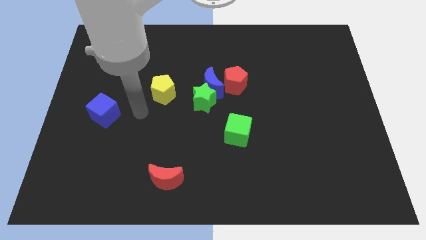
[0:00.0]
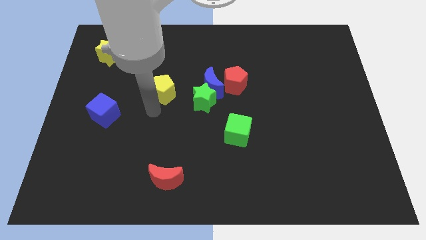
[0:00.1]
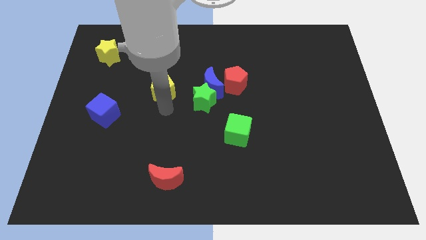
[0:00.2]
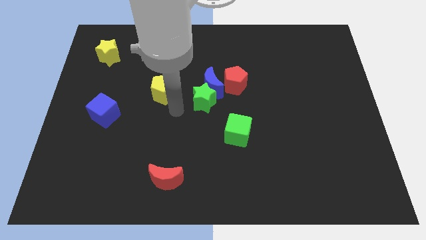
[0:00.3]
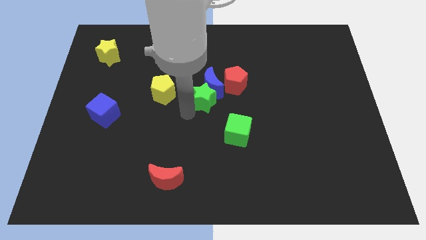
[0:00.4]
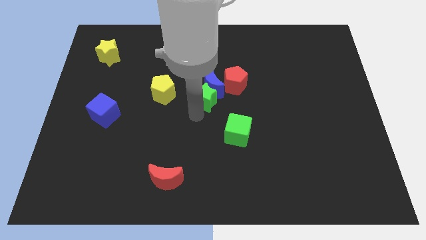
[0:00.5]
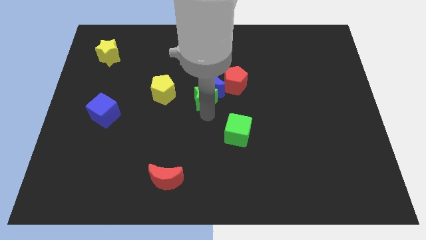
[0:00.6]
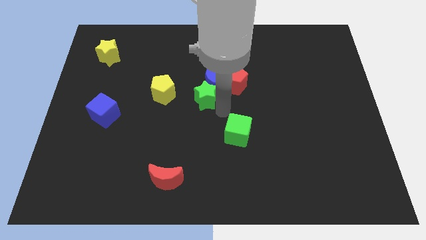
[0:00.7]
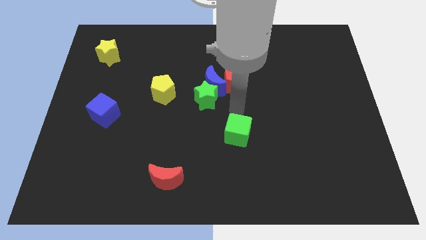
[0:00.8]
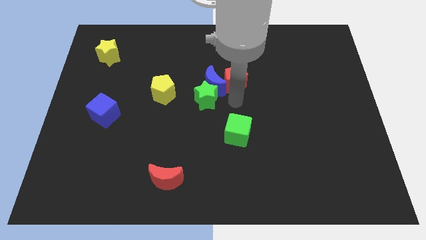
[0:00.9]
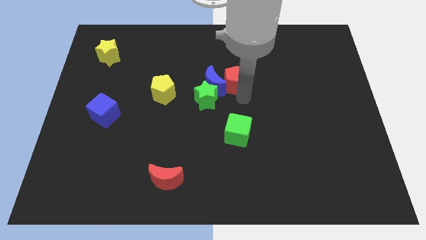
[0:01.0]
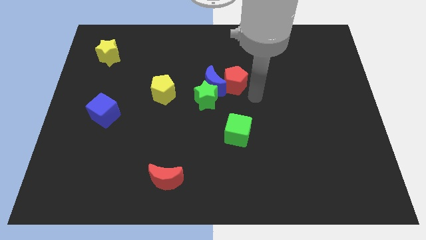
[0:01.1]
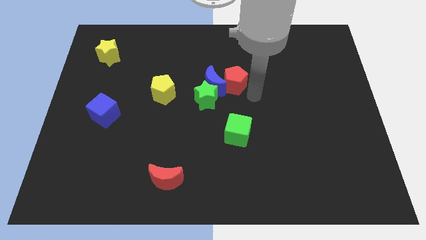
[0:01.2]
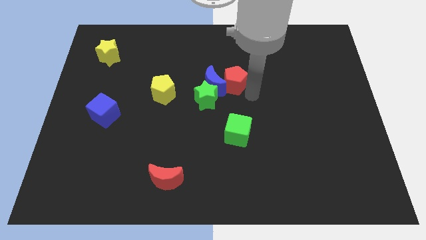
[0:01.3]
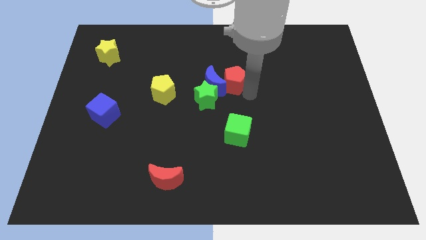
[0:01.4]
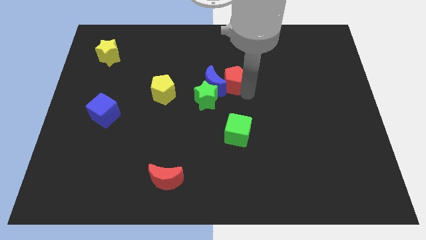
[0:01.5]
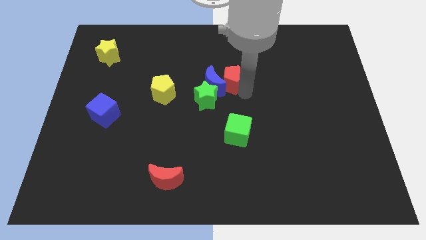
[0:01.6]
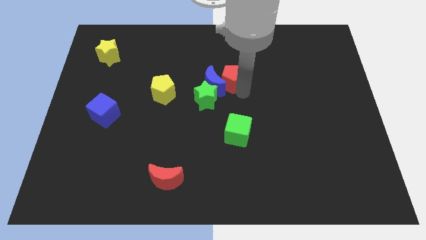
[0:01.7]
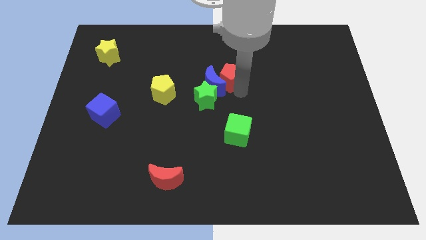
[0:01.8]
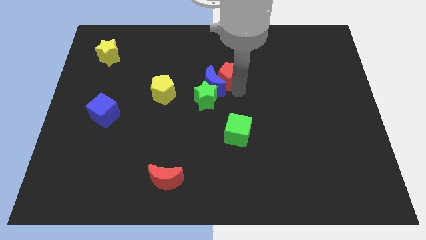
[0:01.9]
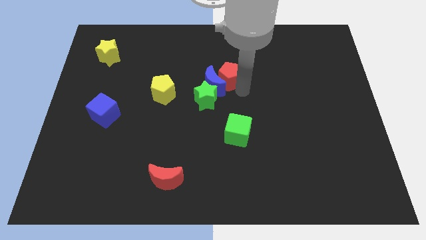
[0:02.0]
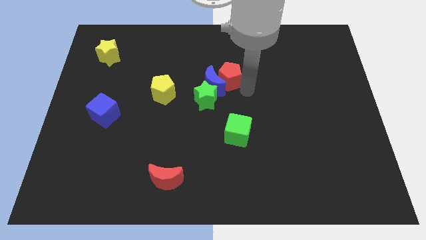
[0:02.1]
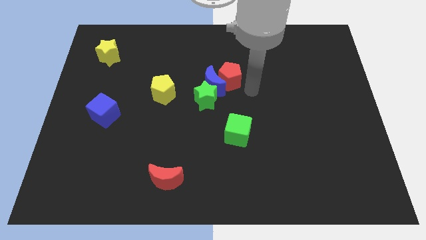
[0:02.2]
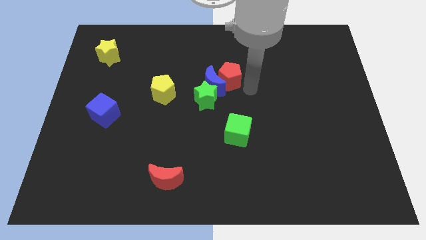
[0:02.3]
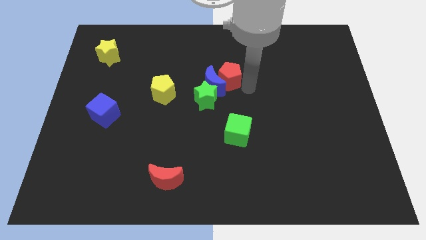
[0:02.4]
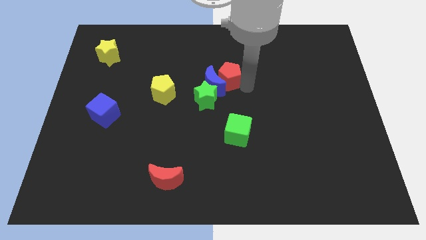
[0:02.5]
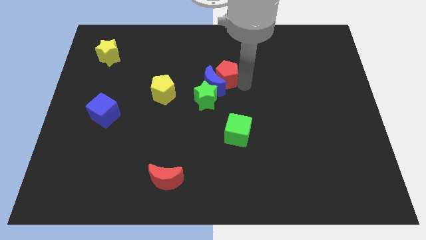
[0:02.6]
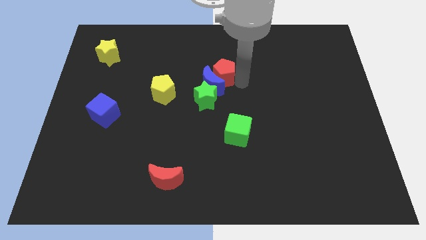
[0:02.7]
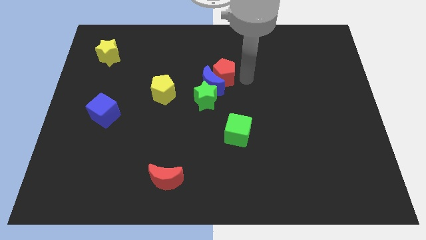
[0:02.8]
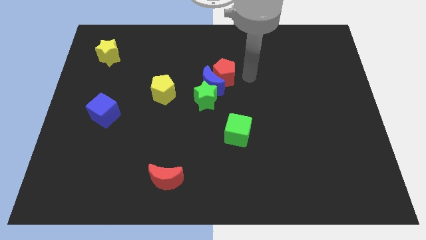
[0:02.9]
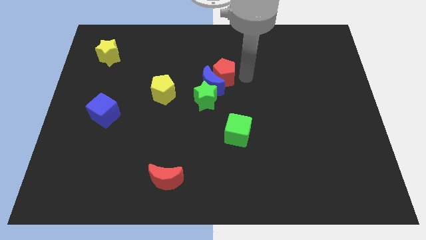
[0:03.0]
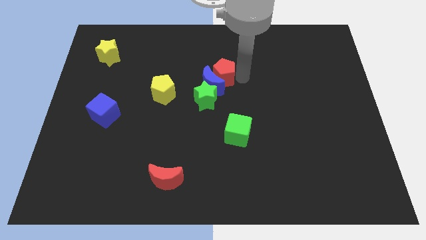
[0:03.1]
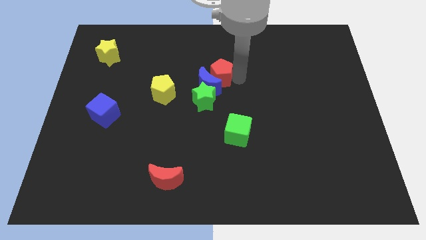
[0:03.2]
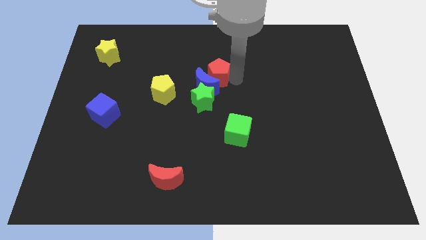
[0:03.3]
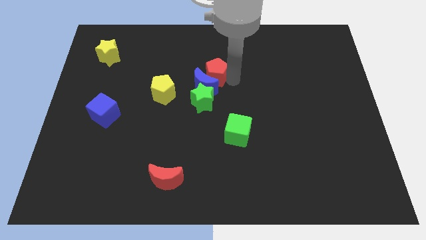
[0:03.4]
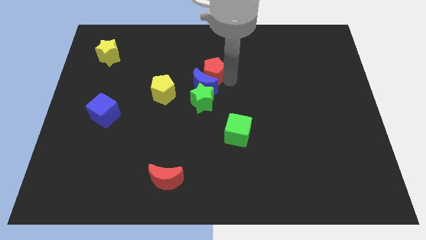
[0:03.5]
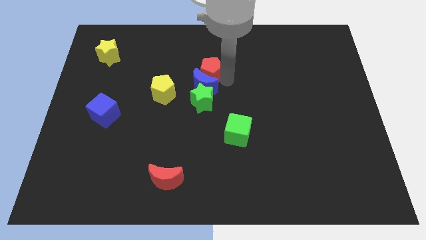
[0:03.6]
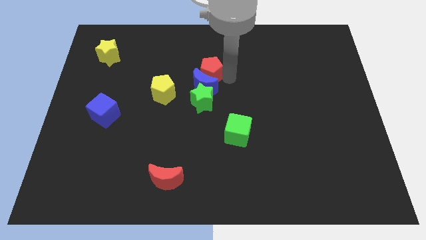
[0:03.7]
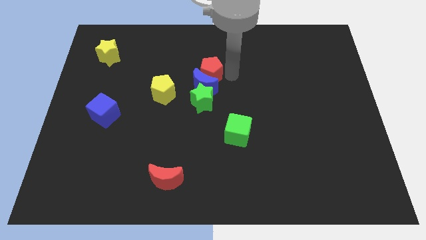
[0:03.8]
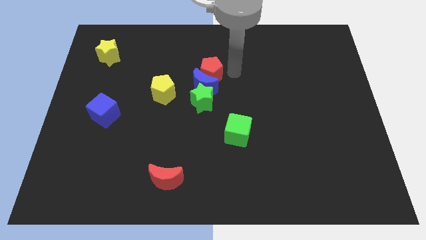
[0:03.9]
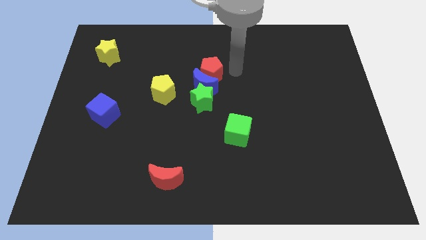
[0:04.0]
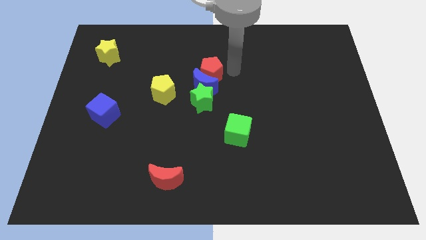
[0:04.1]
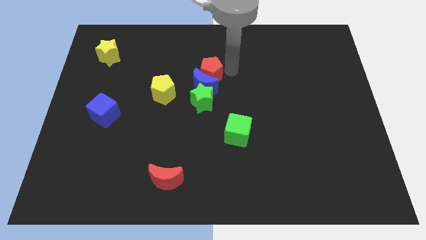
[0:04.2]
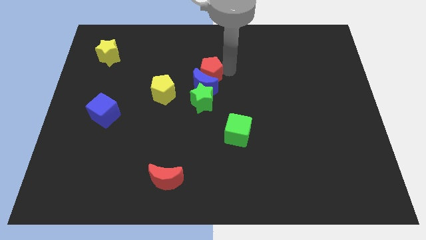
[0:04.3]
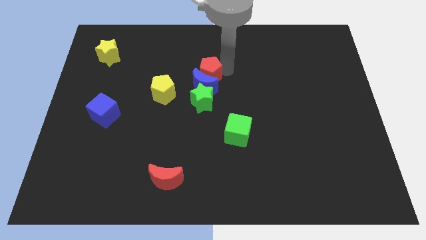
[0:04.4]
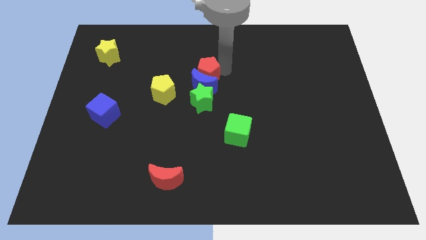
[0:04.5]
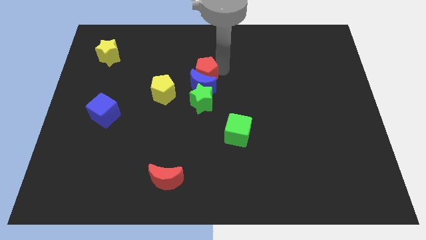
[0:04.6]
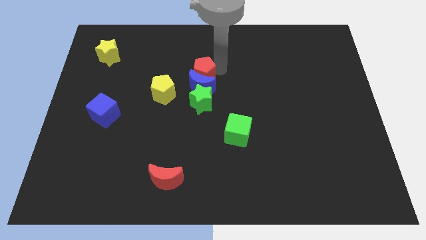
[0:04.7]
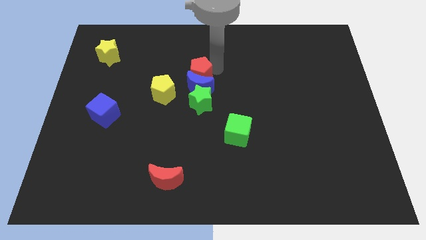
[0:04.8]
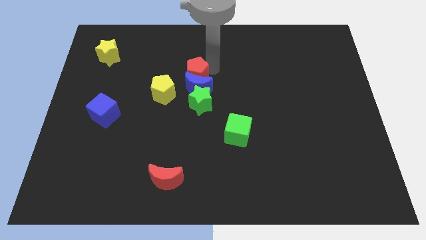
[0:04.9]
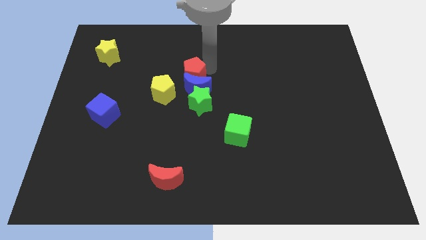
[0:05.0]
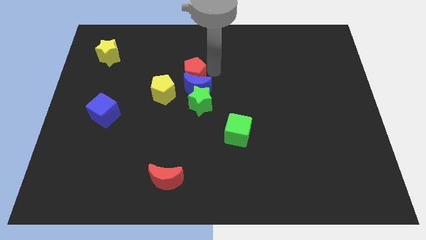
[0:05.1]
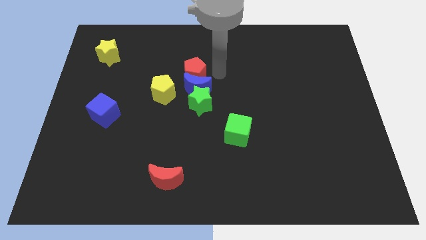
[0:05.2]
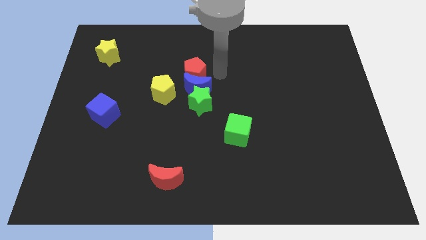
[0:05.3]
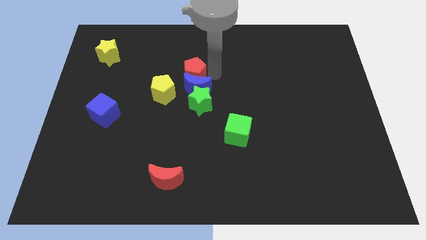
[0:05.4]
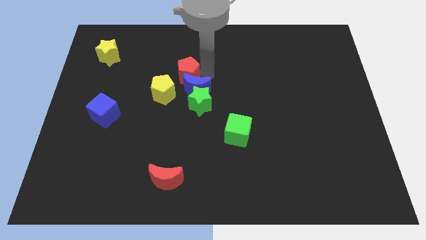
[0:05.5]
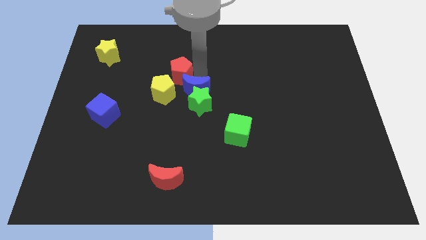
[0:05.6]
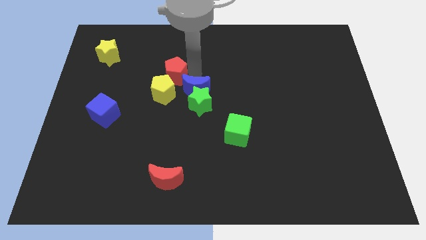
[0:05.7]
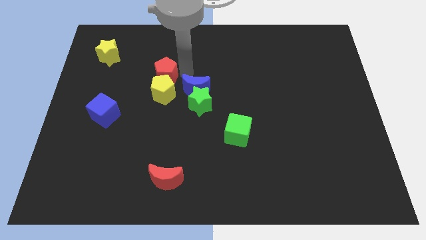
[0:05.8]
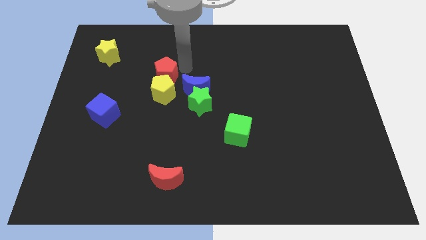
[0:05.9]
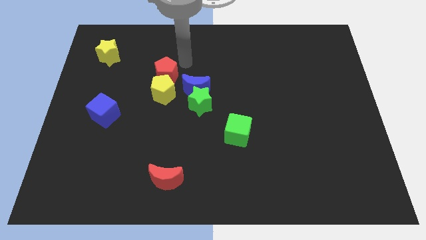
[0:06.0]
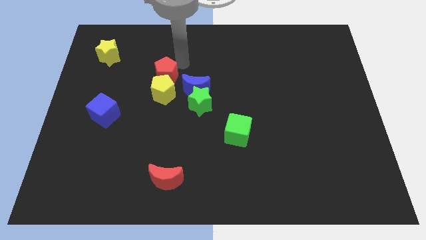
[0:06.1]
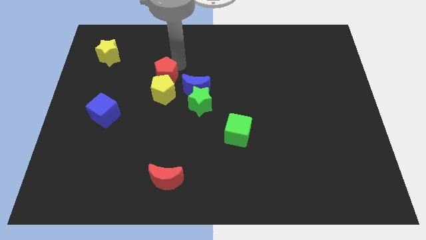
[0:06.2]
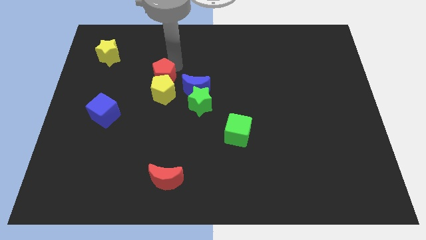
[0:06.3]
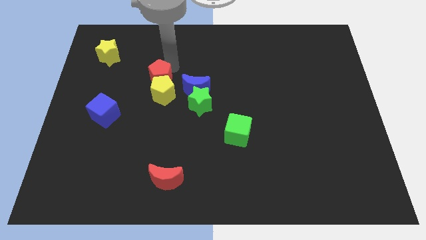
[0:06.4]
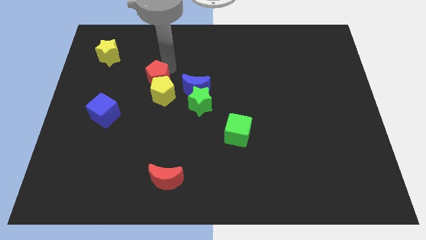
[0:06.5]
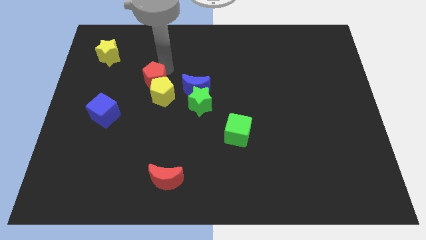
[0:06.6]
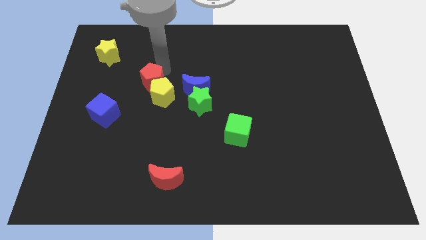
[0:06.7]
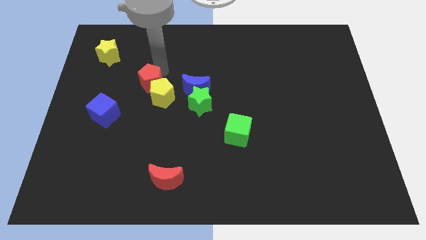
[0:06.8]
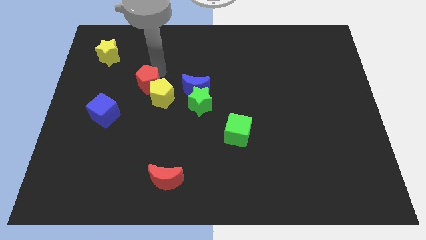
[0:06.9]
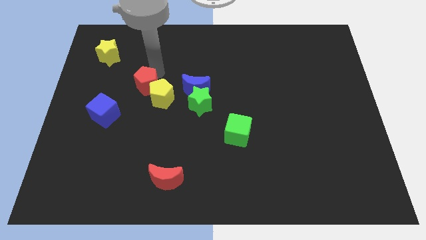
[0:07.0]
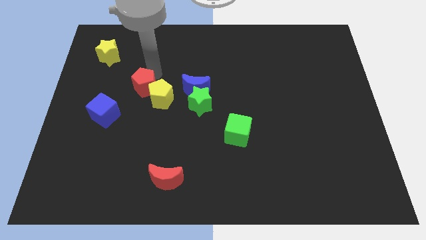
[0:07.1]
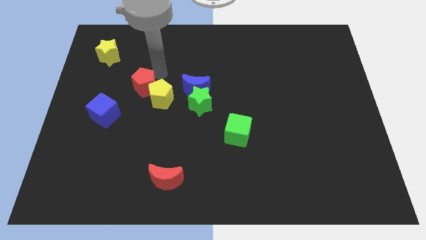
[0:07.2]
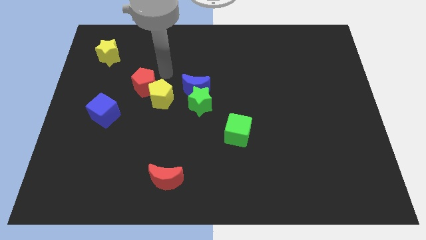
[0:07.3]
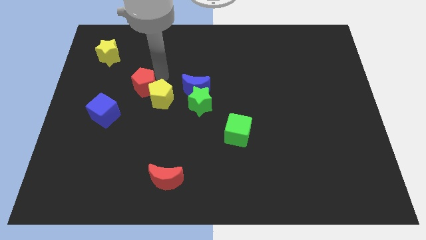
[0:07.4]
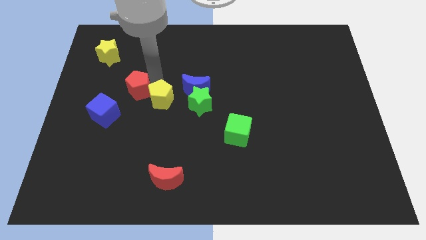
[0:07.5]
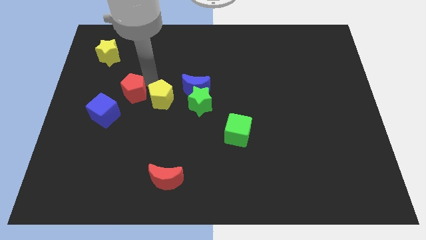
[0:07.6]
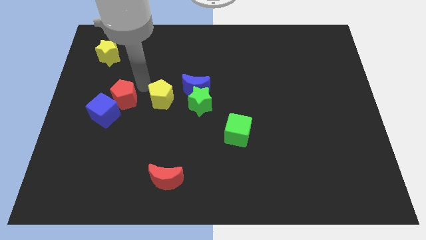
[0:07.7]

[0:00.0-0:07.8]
move the red pentagon close to the blue cube

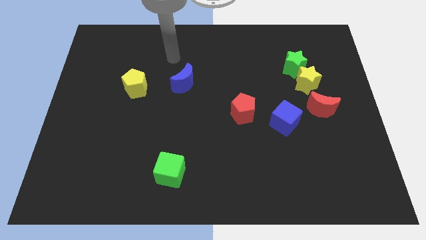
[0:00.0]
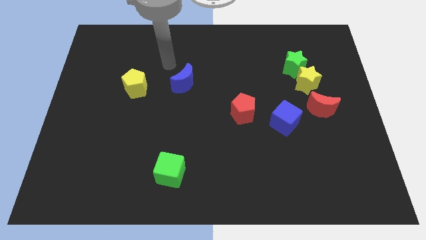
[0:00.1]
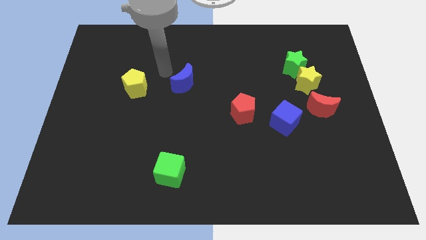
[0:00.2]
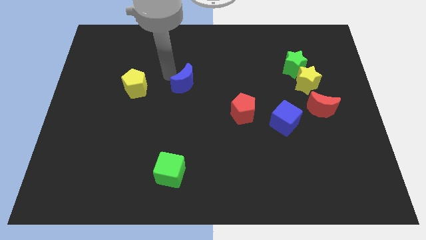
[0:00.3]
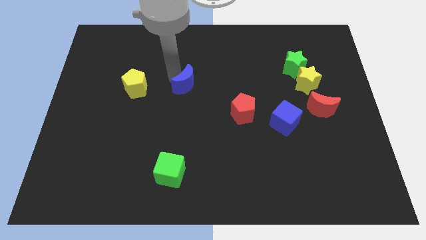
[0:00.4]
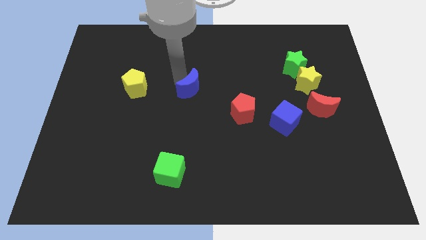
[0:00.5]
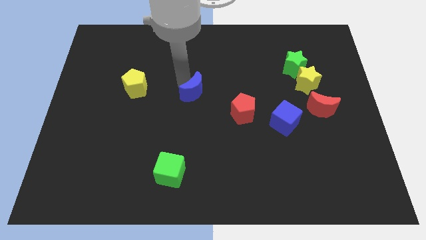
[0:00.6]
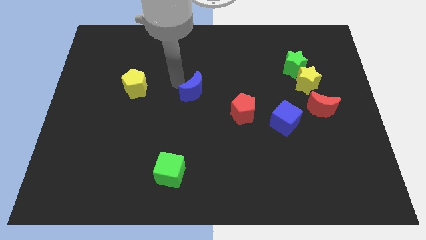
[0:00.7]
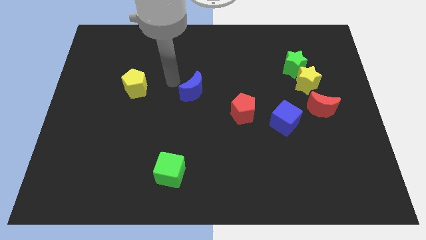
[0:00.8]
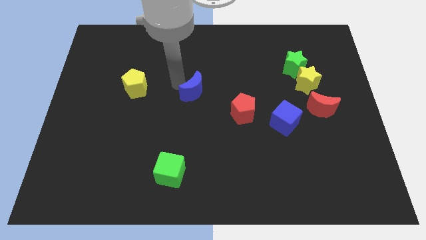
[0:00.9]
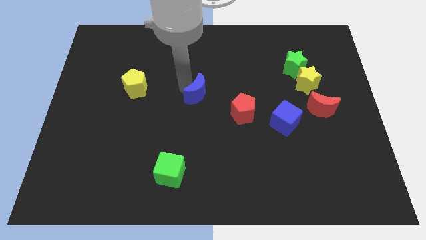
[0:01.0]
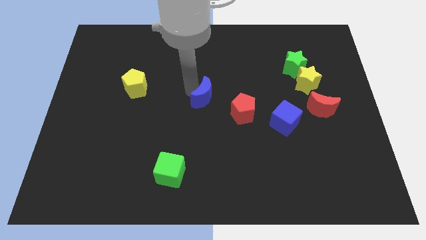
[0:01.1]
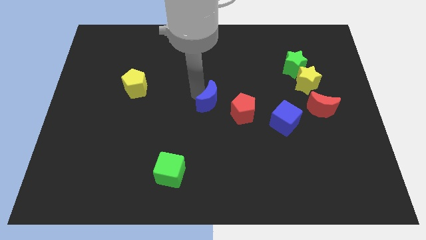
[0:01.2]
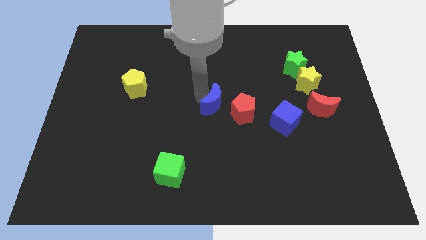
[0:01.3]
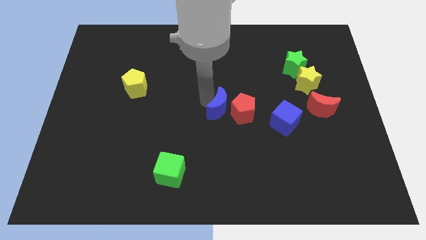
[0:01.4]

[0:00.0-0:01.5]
put the blue moon close to the red pentagon
